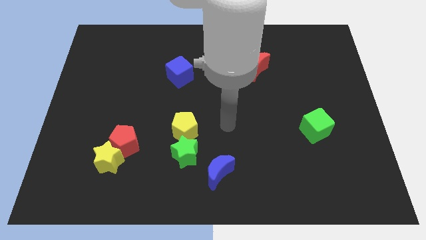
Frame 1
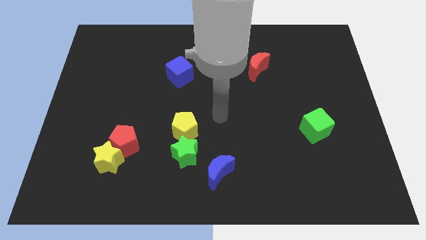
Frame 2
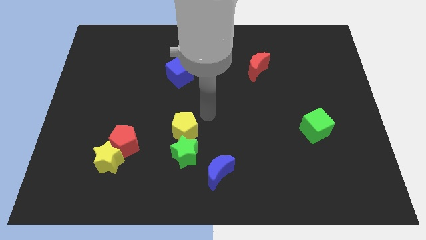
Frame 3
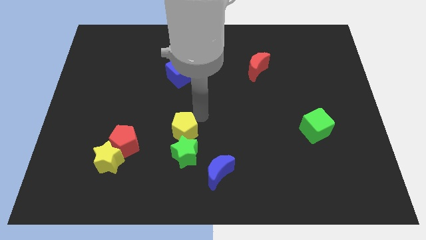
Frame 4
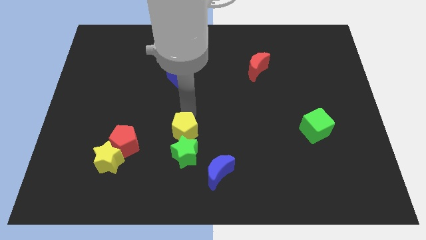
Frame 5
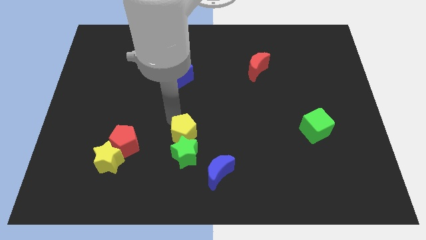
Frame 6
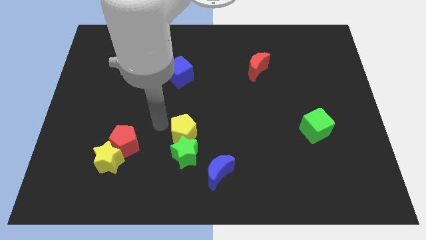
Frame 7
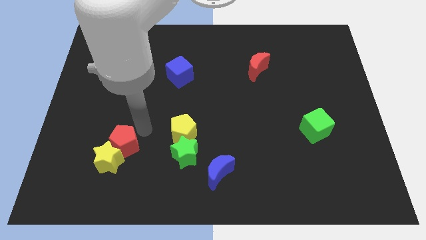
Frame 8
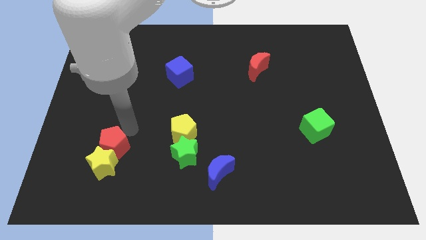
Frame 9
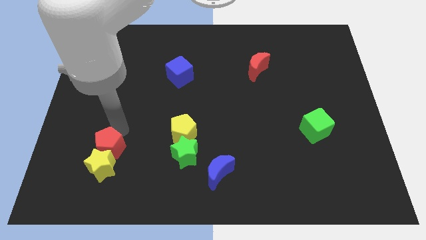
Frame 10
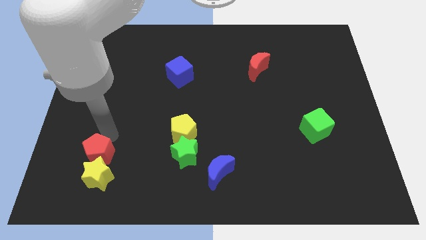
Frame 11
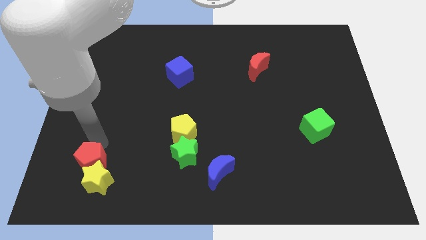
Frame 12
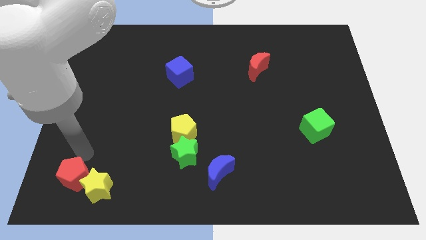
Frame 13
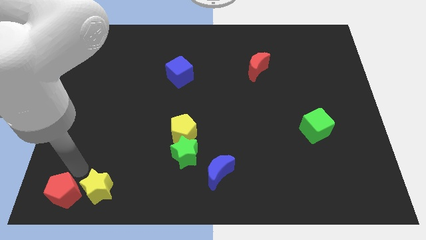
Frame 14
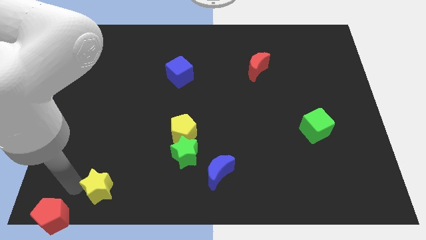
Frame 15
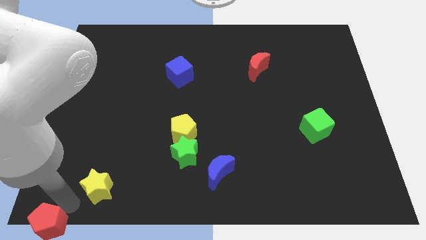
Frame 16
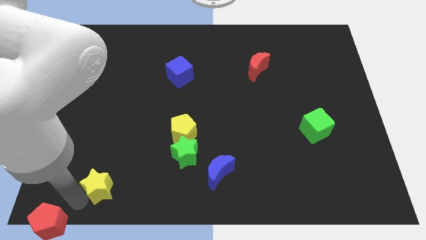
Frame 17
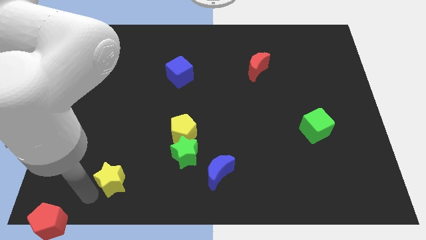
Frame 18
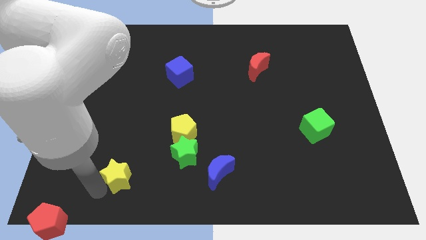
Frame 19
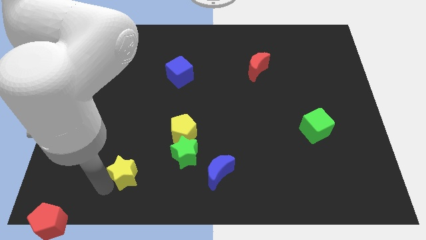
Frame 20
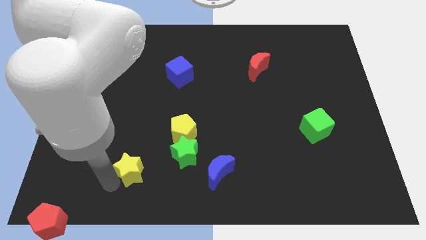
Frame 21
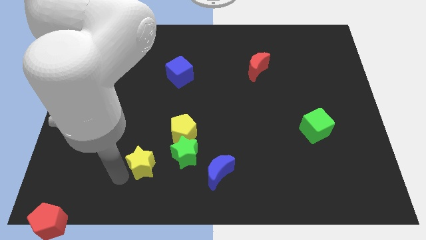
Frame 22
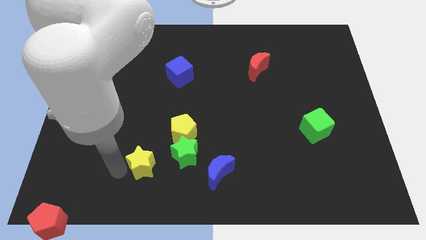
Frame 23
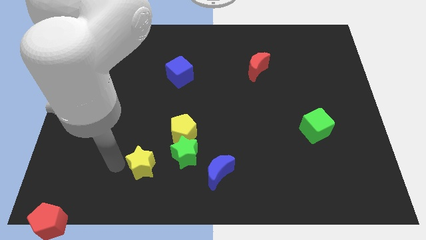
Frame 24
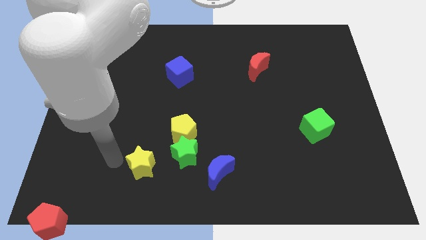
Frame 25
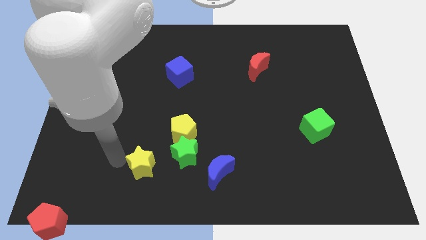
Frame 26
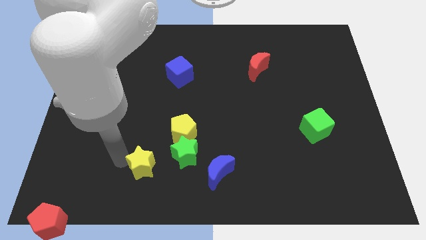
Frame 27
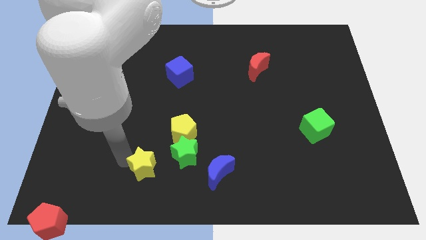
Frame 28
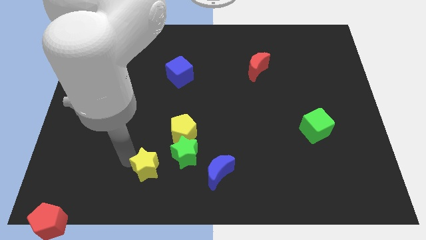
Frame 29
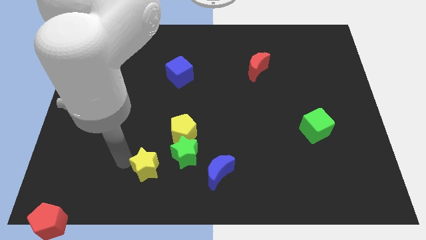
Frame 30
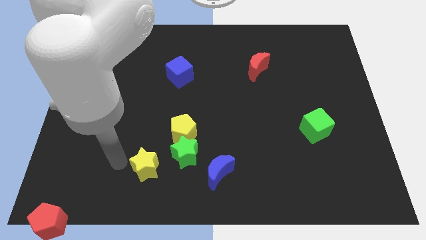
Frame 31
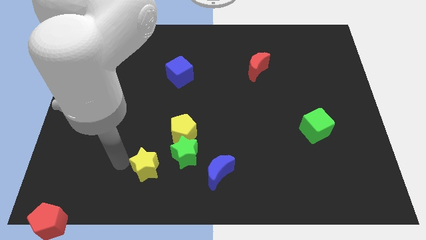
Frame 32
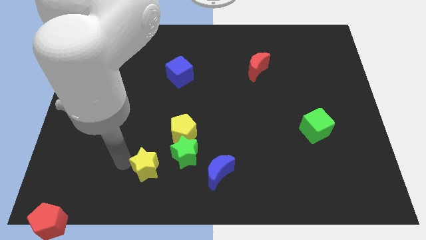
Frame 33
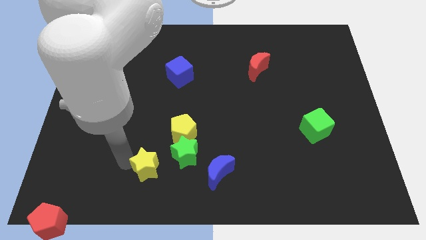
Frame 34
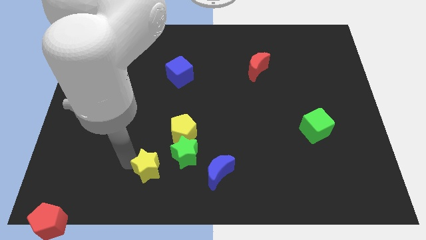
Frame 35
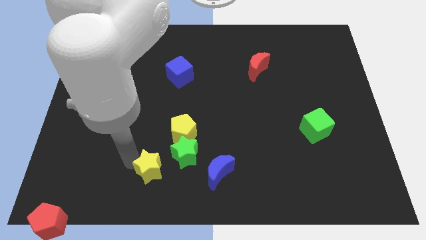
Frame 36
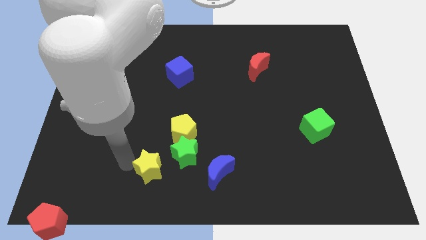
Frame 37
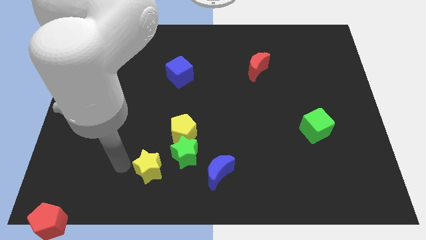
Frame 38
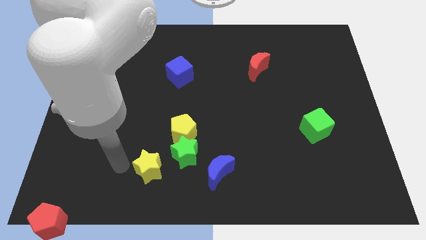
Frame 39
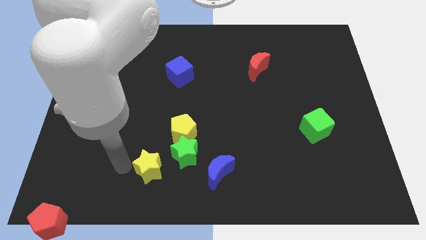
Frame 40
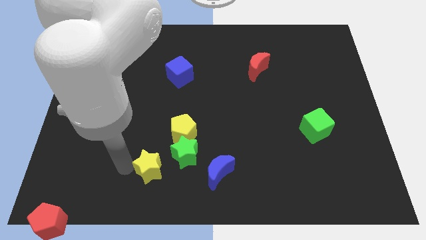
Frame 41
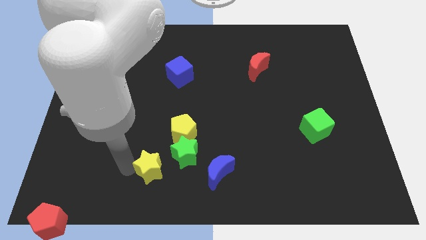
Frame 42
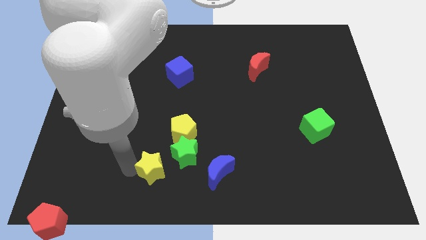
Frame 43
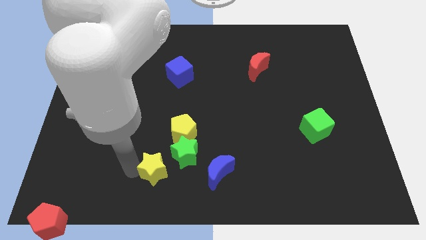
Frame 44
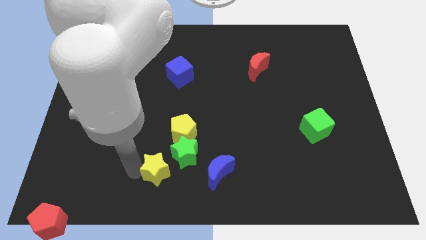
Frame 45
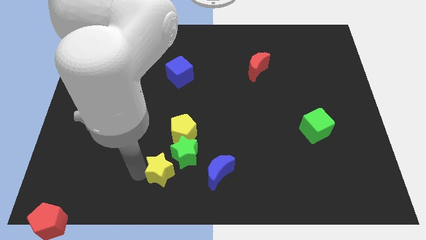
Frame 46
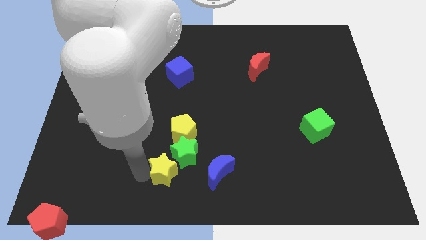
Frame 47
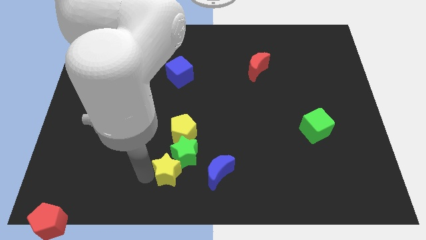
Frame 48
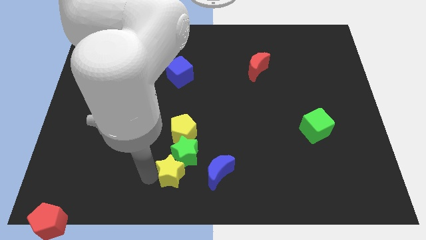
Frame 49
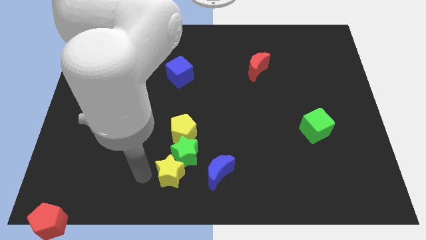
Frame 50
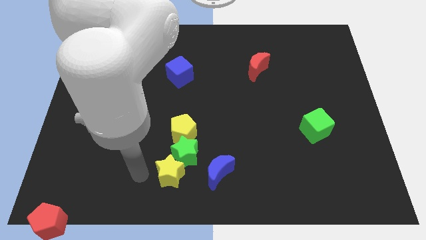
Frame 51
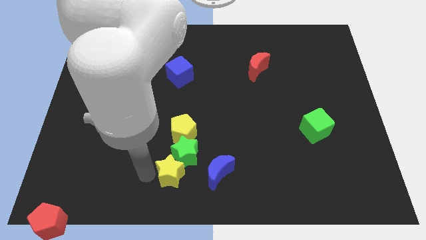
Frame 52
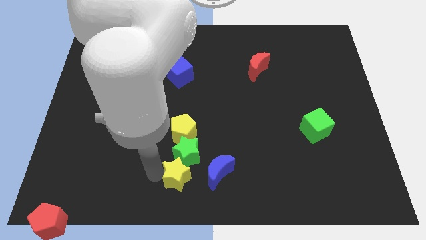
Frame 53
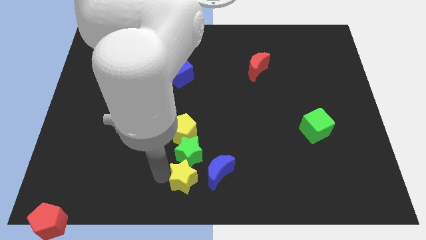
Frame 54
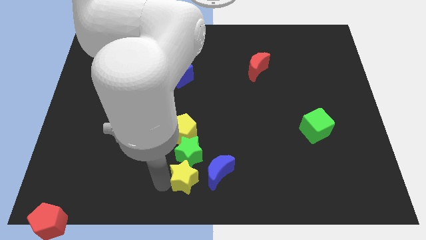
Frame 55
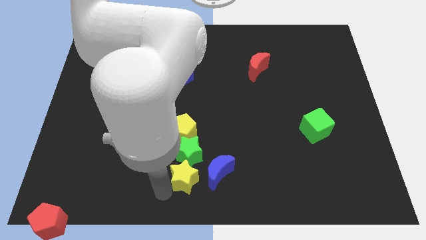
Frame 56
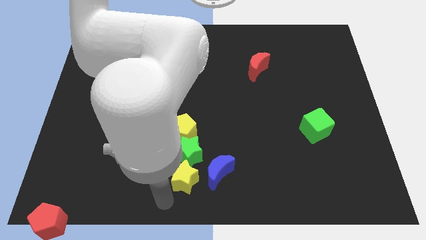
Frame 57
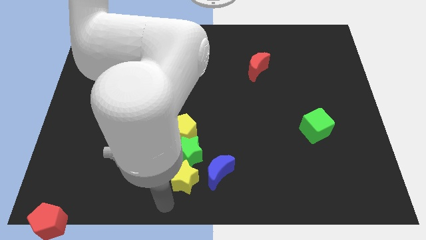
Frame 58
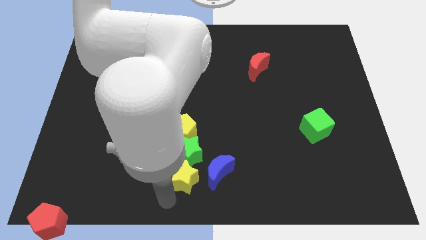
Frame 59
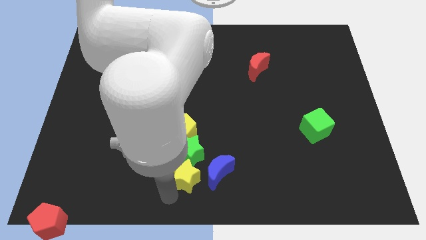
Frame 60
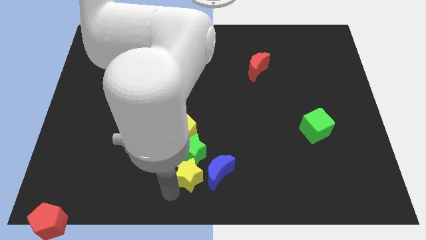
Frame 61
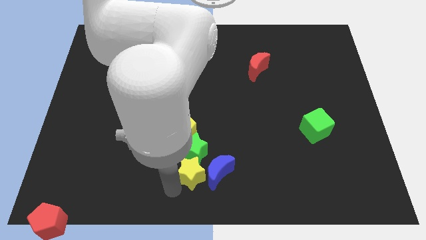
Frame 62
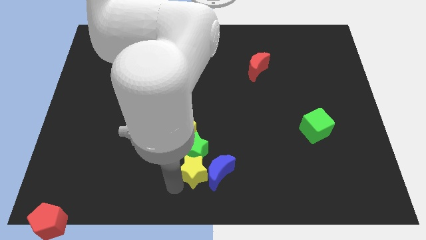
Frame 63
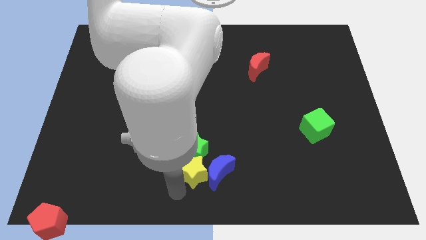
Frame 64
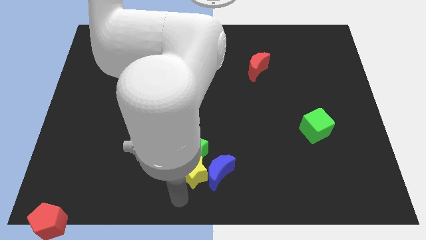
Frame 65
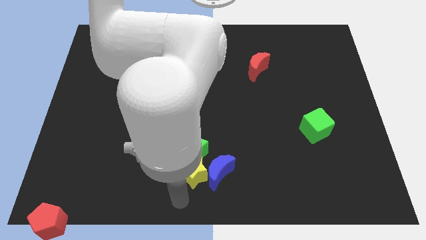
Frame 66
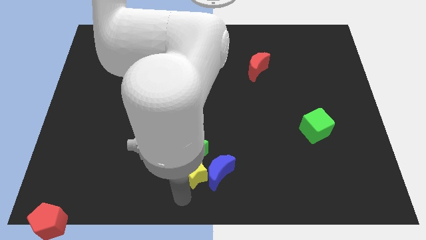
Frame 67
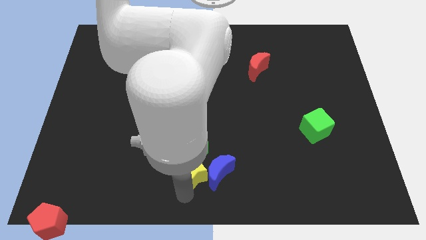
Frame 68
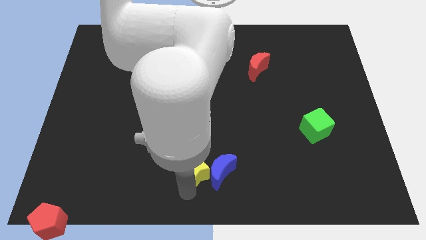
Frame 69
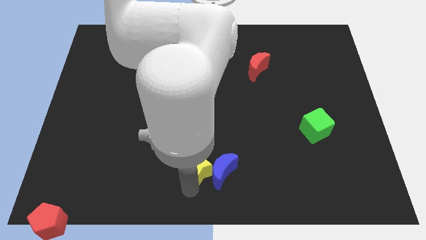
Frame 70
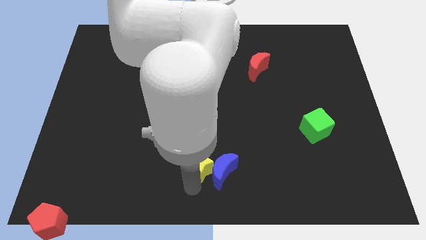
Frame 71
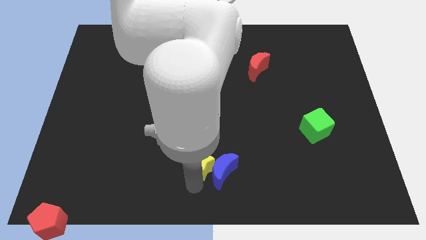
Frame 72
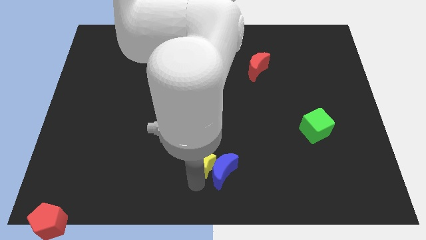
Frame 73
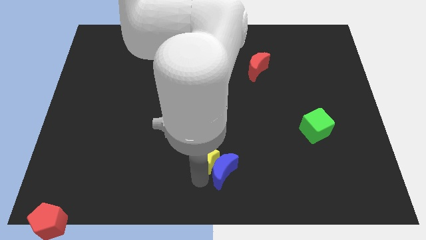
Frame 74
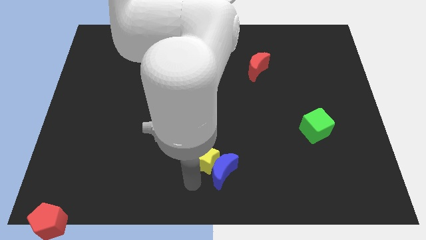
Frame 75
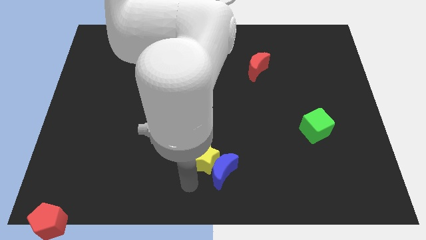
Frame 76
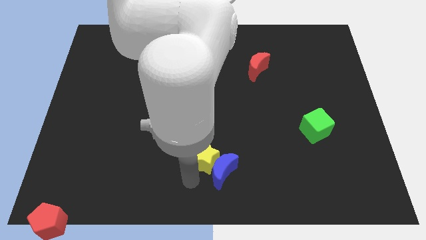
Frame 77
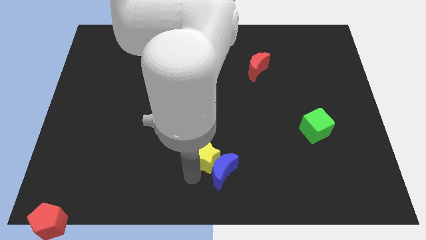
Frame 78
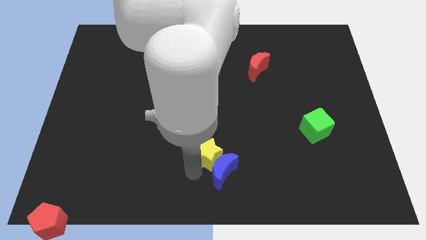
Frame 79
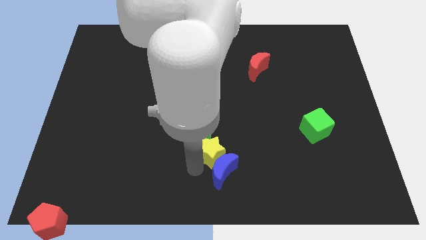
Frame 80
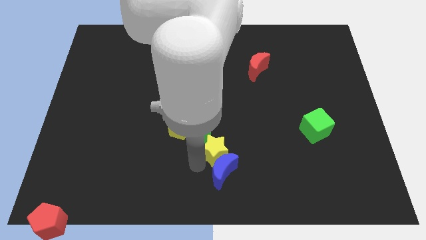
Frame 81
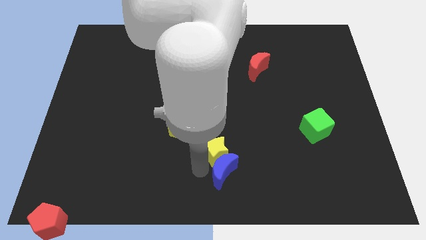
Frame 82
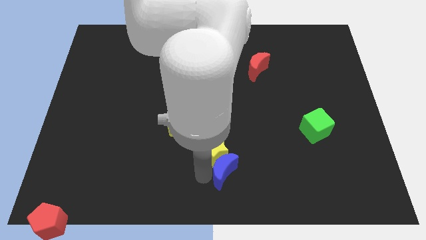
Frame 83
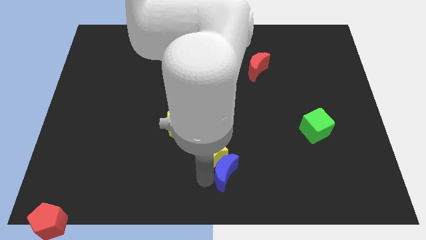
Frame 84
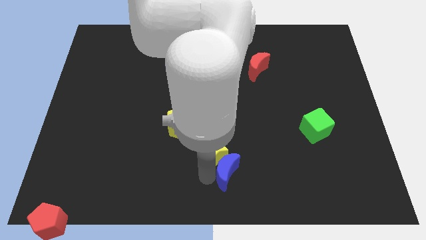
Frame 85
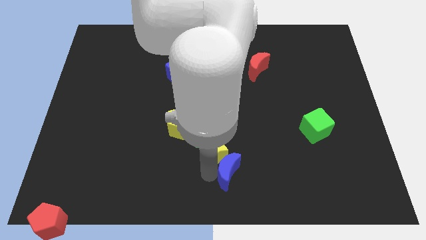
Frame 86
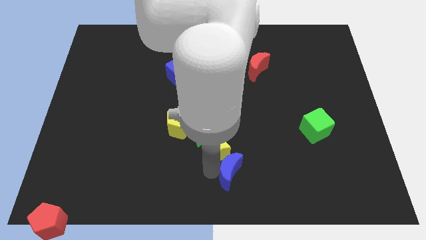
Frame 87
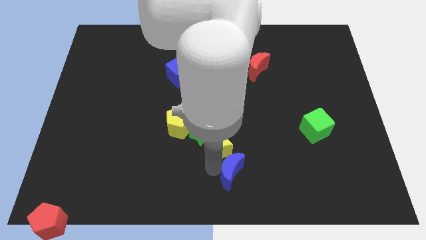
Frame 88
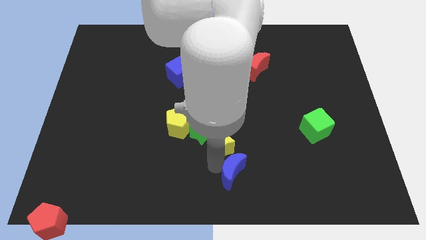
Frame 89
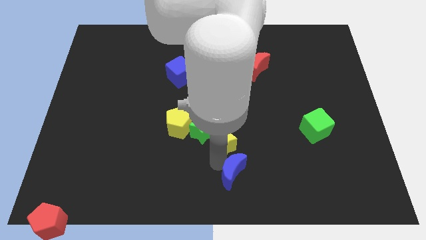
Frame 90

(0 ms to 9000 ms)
move the yellow star just right of the yellow pentagon
